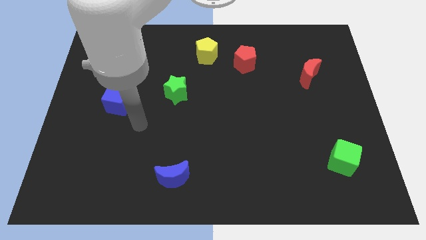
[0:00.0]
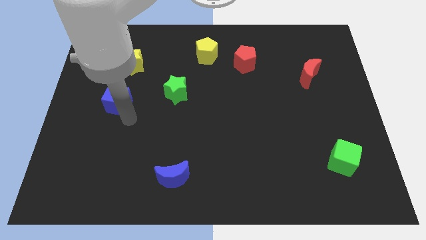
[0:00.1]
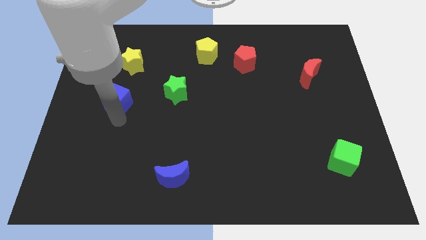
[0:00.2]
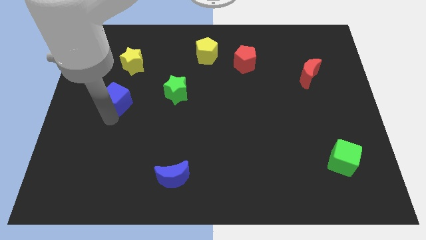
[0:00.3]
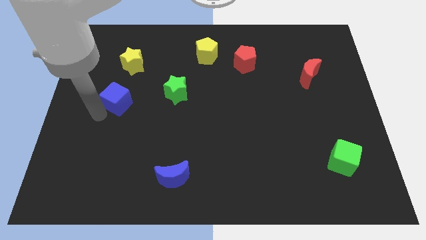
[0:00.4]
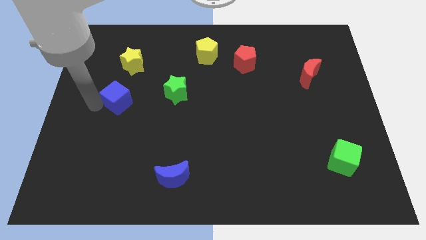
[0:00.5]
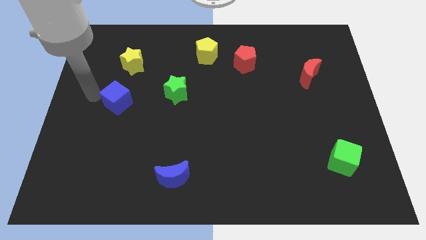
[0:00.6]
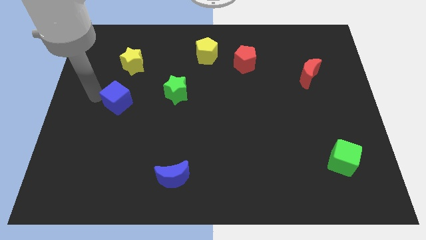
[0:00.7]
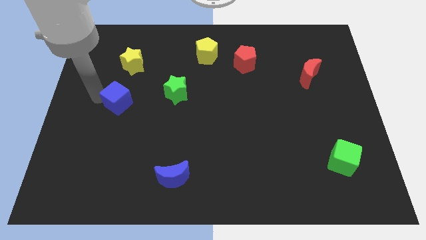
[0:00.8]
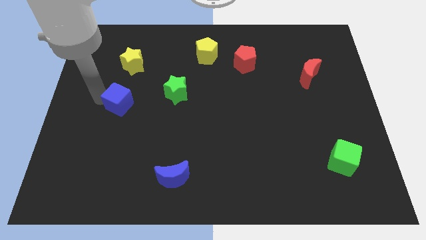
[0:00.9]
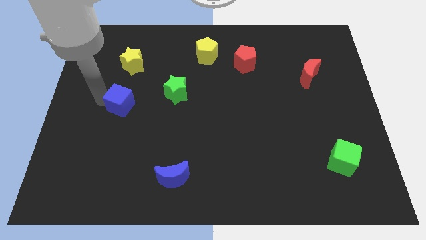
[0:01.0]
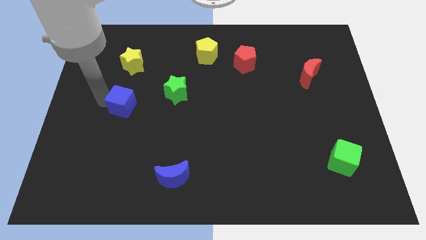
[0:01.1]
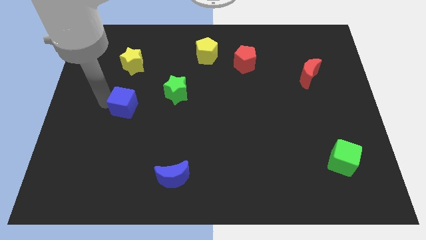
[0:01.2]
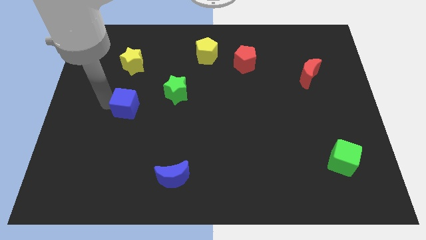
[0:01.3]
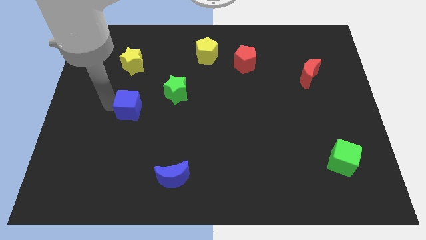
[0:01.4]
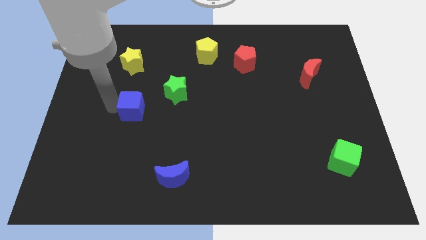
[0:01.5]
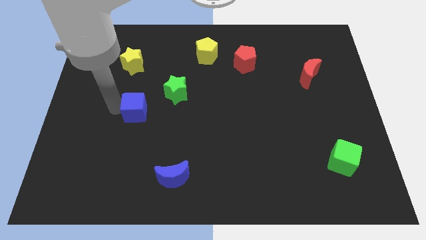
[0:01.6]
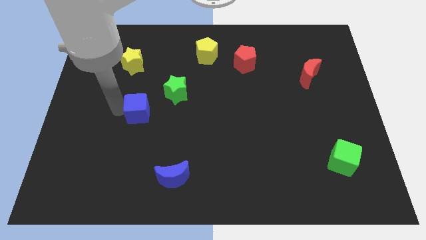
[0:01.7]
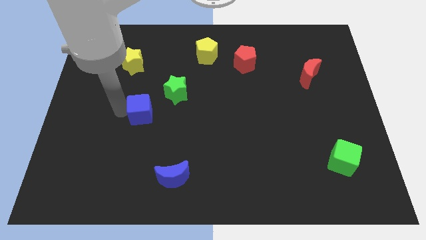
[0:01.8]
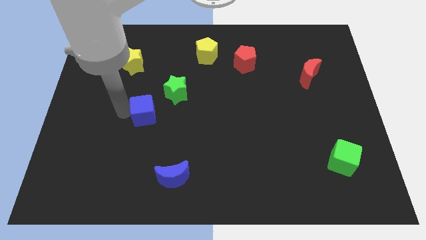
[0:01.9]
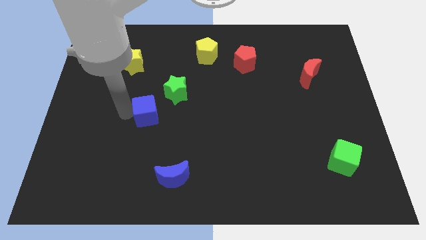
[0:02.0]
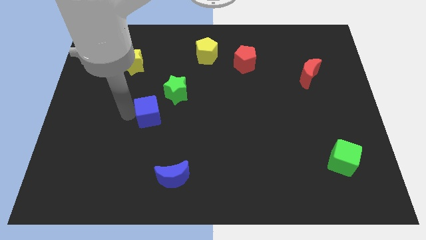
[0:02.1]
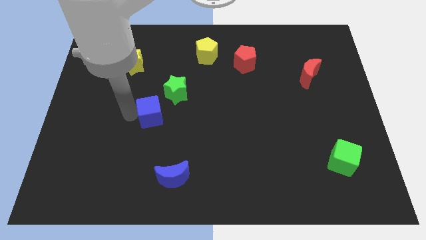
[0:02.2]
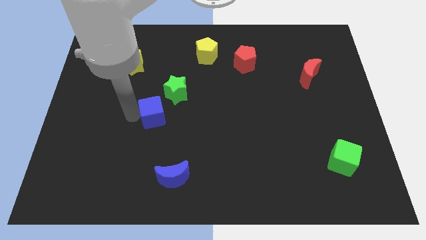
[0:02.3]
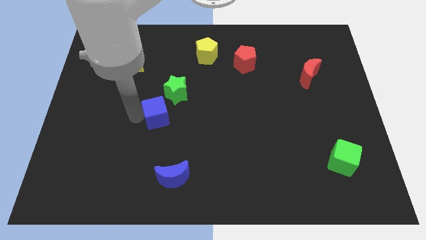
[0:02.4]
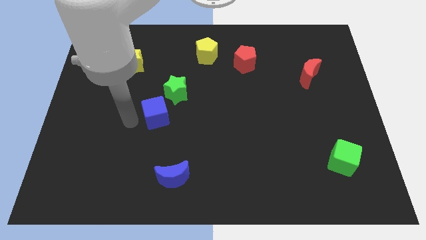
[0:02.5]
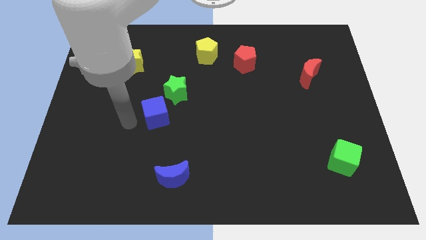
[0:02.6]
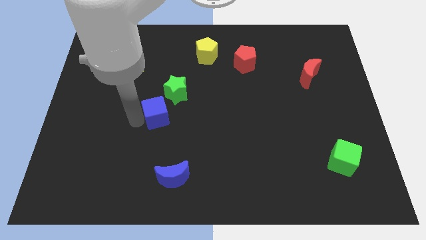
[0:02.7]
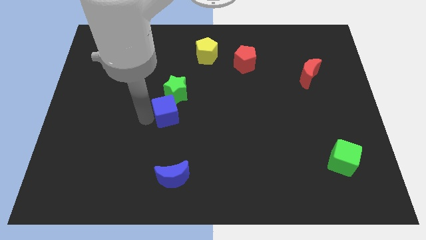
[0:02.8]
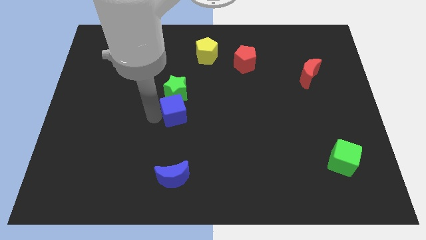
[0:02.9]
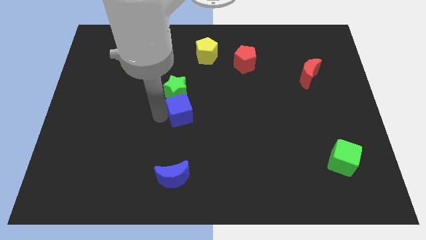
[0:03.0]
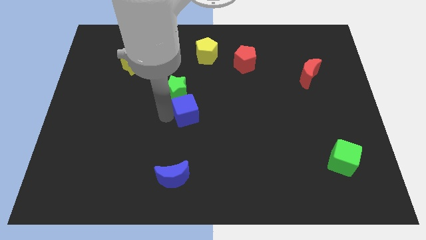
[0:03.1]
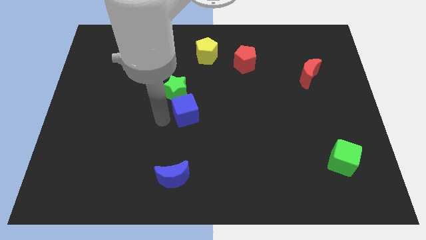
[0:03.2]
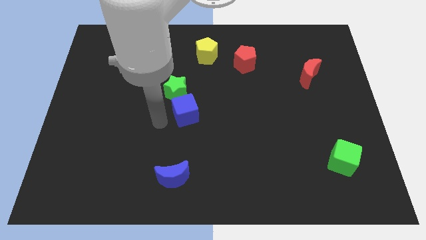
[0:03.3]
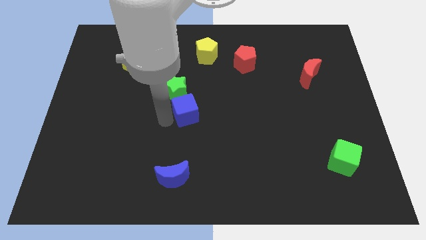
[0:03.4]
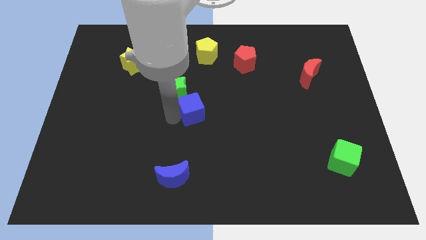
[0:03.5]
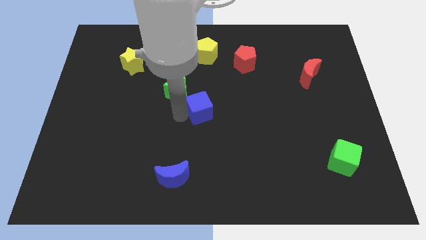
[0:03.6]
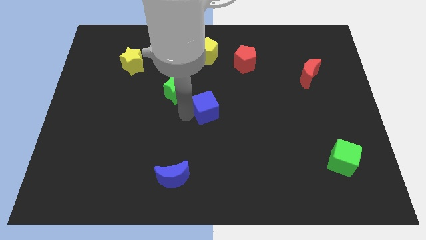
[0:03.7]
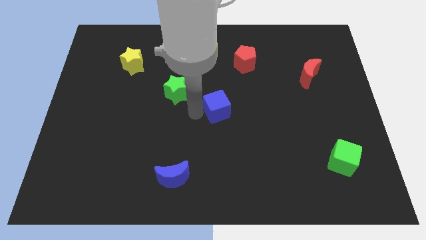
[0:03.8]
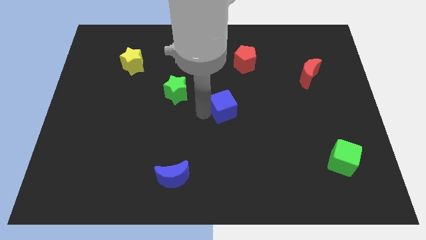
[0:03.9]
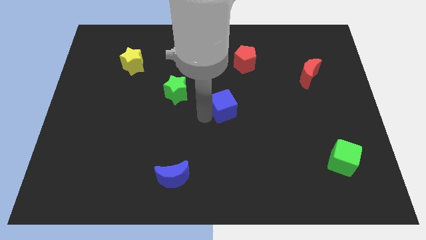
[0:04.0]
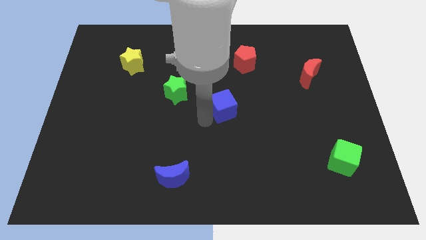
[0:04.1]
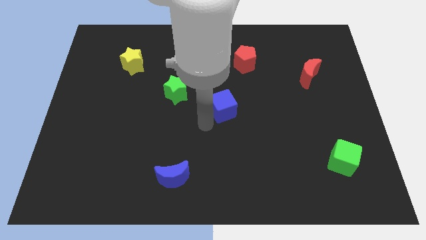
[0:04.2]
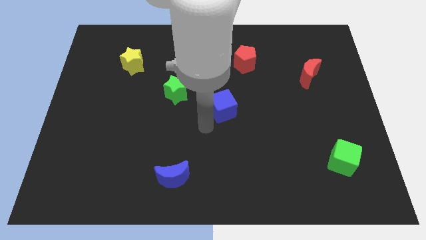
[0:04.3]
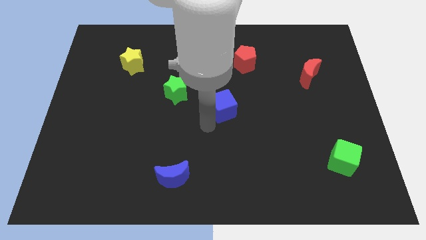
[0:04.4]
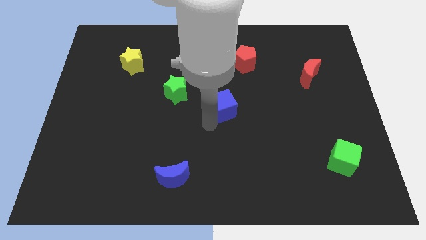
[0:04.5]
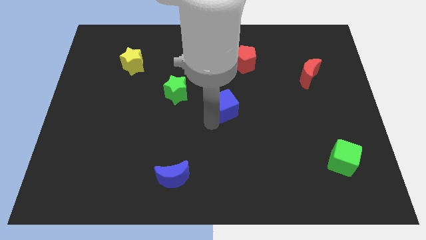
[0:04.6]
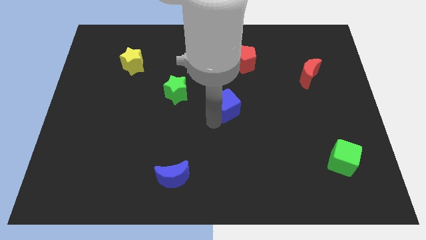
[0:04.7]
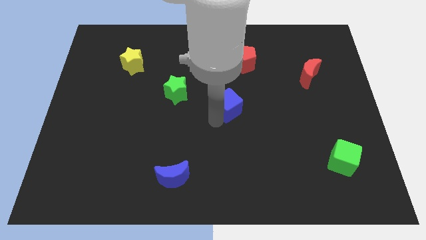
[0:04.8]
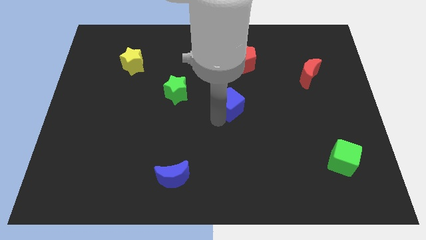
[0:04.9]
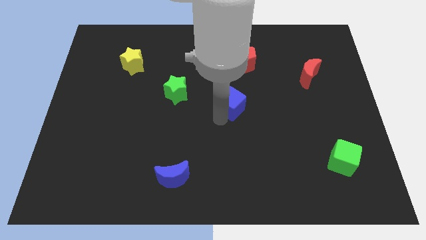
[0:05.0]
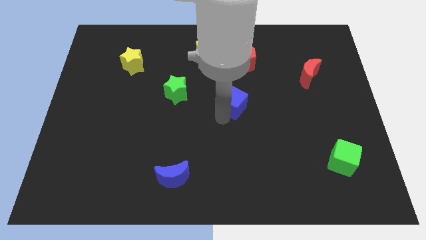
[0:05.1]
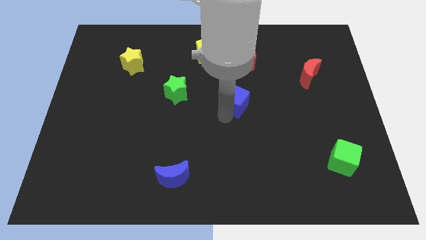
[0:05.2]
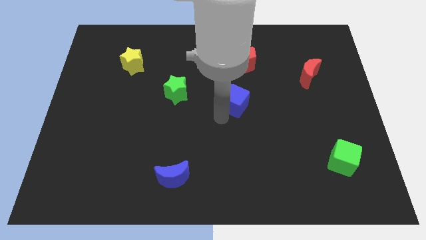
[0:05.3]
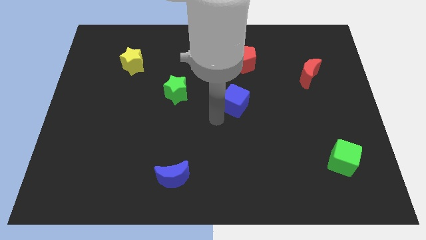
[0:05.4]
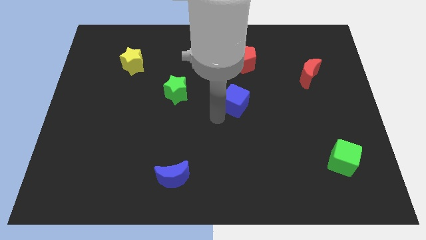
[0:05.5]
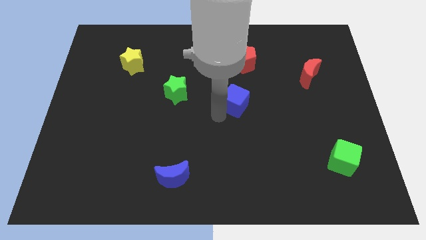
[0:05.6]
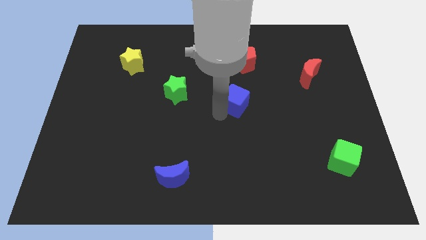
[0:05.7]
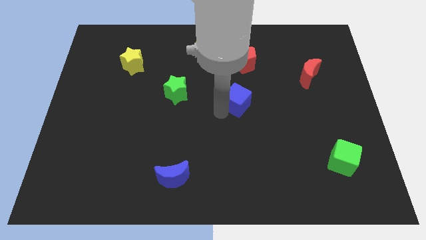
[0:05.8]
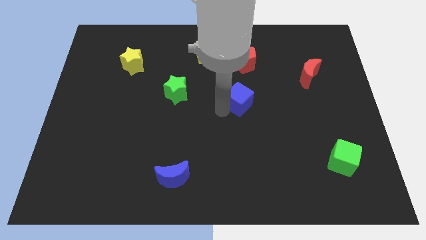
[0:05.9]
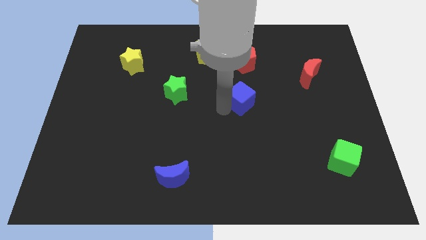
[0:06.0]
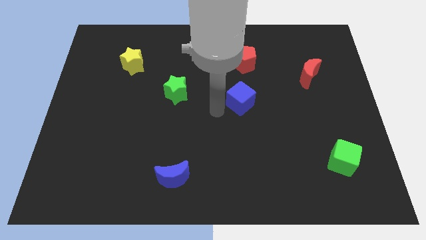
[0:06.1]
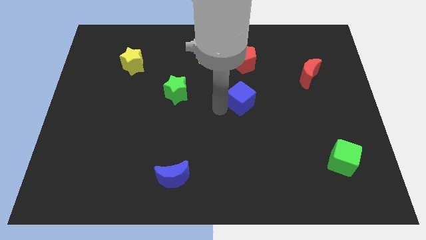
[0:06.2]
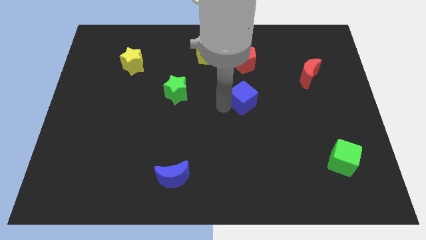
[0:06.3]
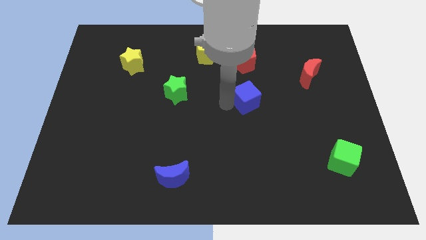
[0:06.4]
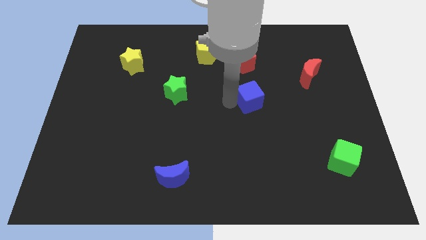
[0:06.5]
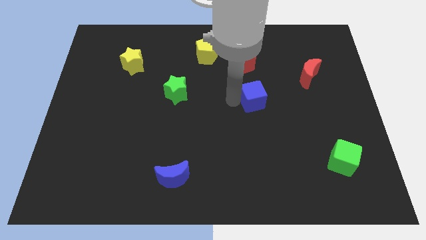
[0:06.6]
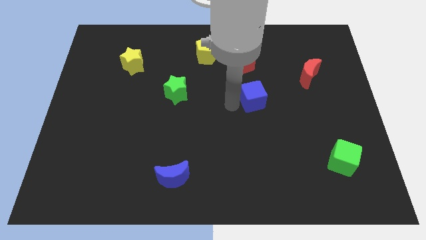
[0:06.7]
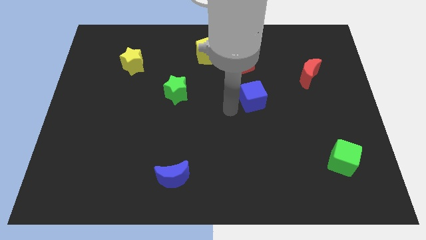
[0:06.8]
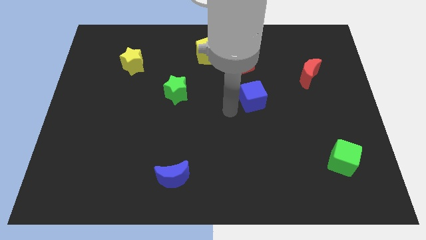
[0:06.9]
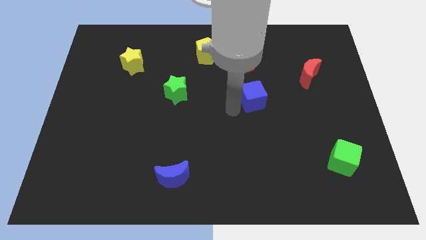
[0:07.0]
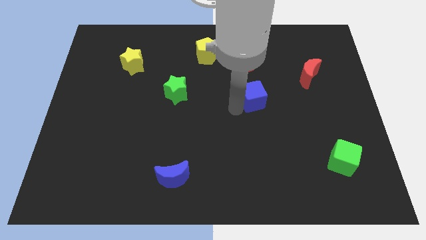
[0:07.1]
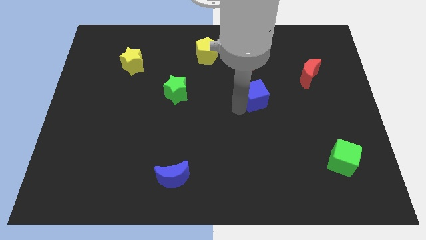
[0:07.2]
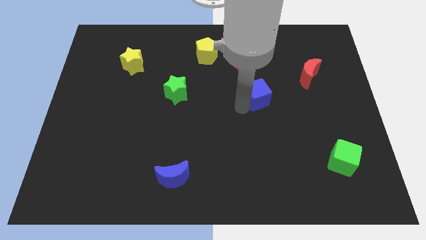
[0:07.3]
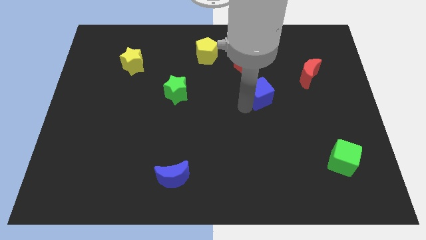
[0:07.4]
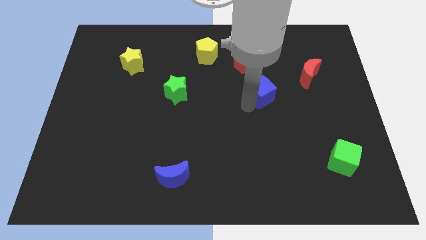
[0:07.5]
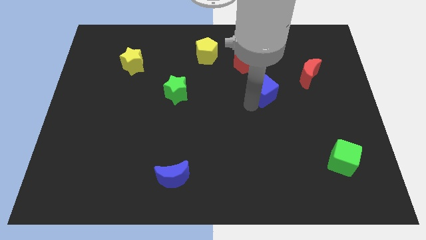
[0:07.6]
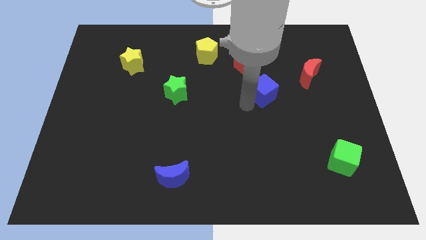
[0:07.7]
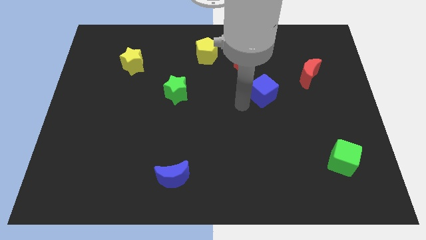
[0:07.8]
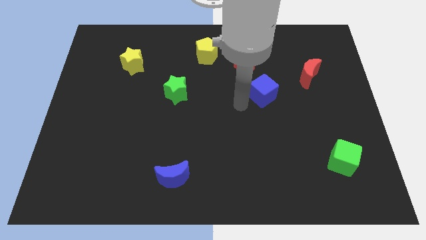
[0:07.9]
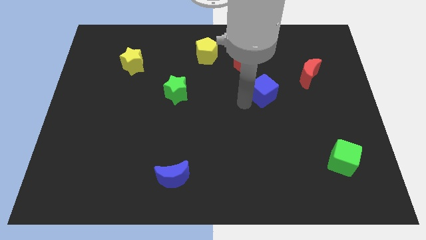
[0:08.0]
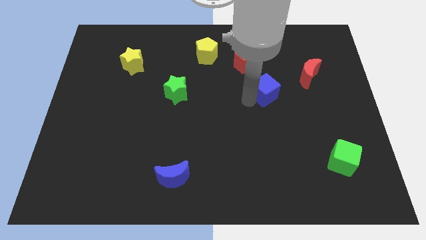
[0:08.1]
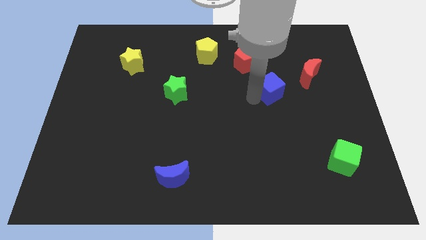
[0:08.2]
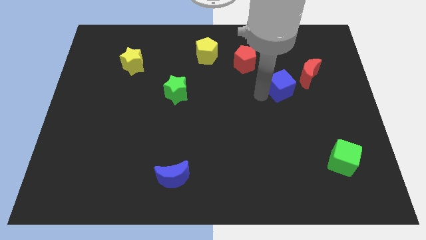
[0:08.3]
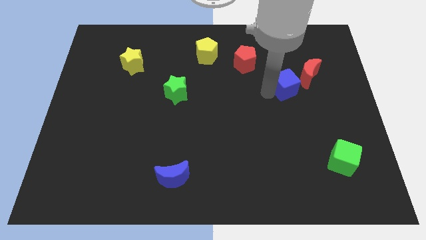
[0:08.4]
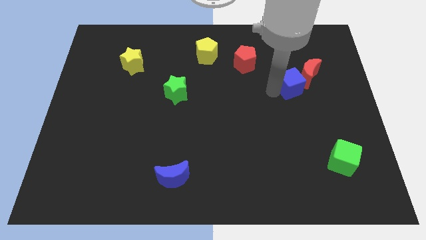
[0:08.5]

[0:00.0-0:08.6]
push the blue cube to the red moon
